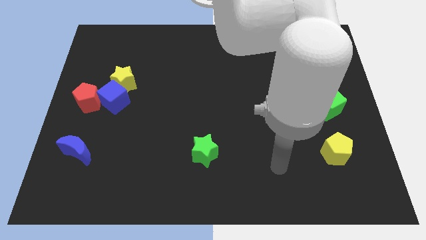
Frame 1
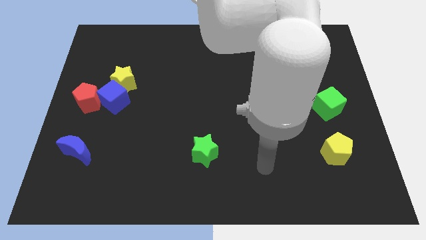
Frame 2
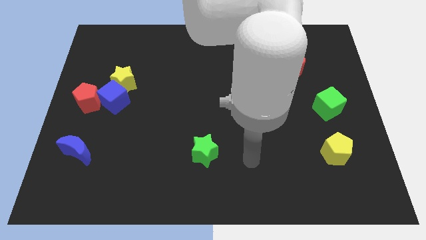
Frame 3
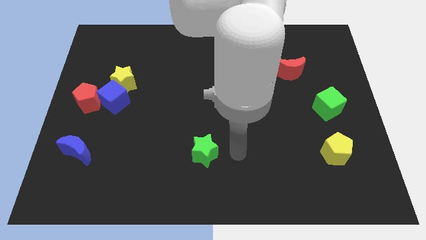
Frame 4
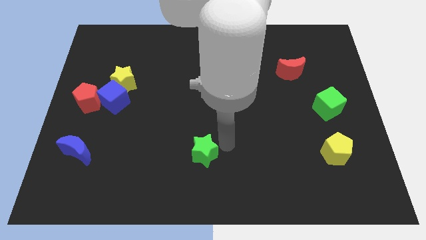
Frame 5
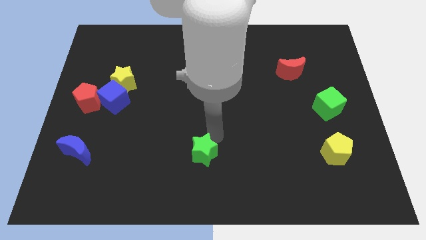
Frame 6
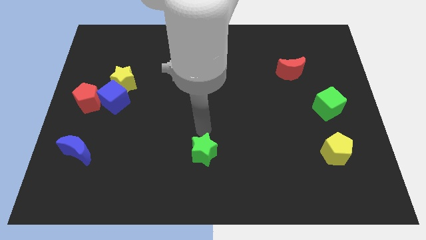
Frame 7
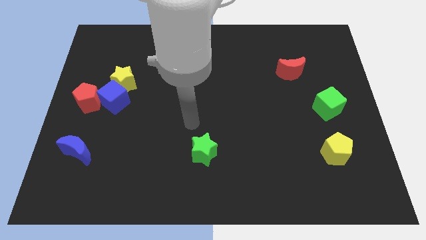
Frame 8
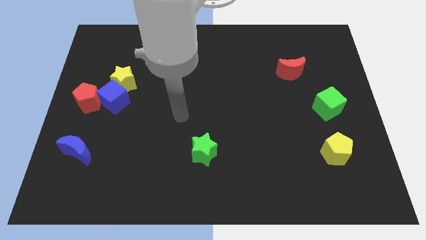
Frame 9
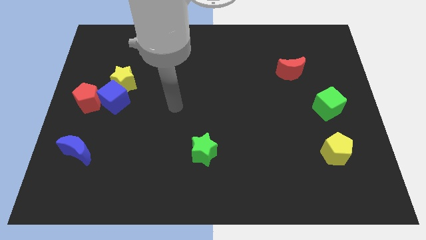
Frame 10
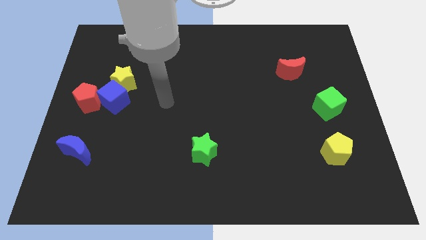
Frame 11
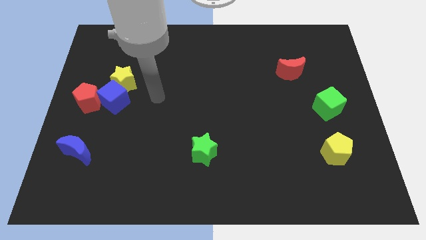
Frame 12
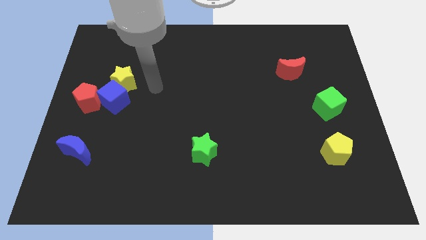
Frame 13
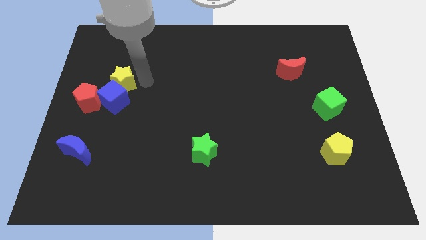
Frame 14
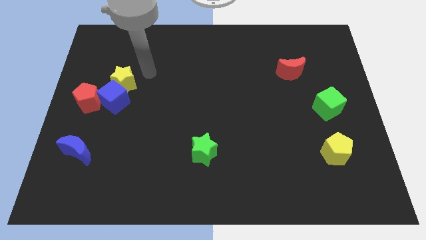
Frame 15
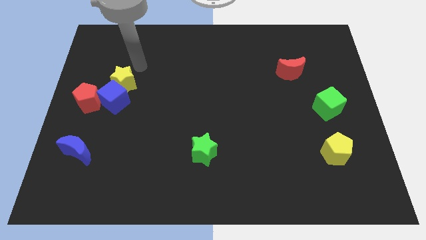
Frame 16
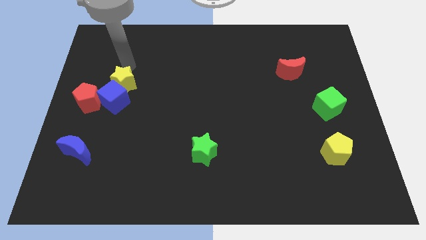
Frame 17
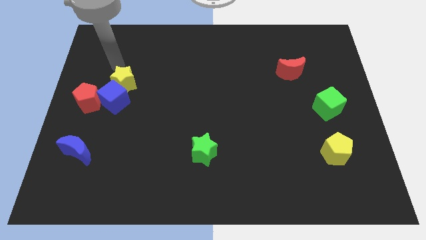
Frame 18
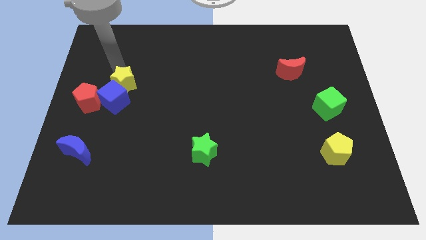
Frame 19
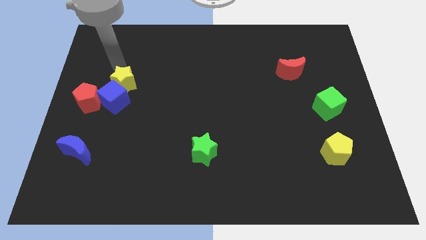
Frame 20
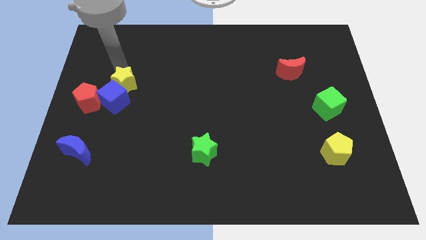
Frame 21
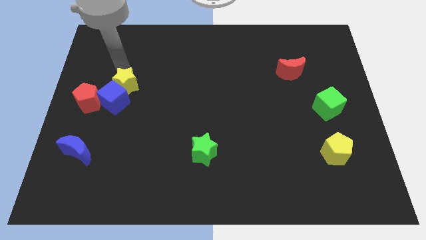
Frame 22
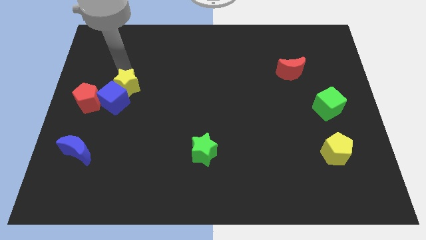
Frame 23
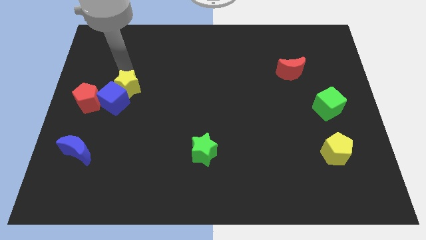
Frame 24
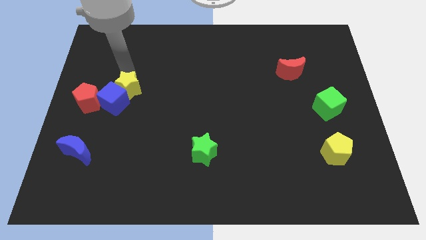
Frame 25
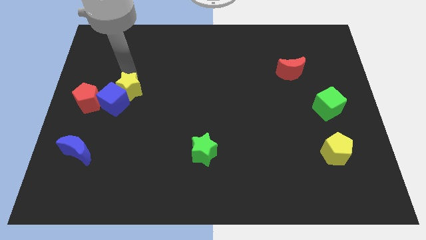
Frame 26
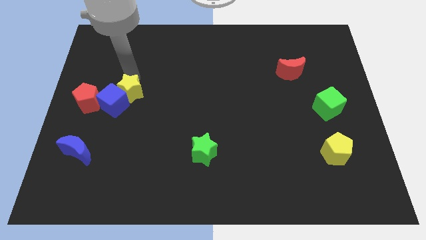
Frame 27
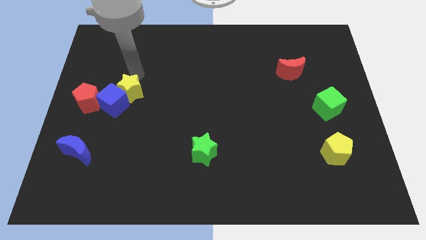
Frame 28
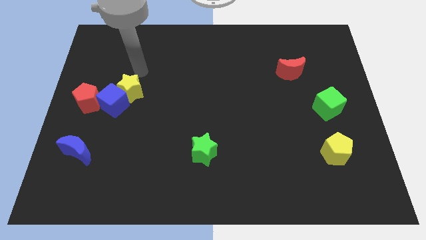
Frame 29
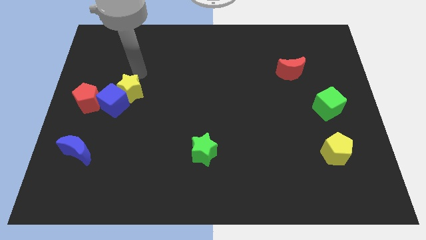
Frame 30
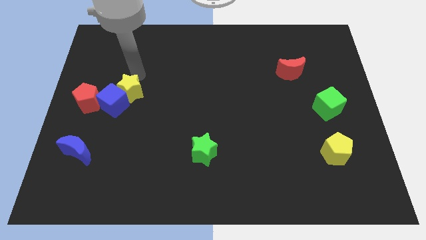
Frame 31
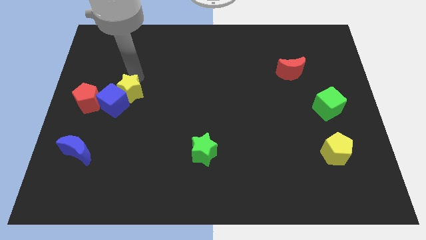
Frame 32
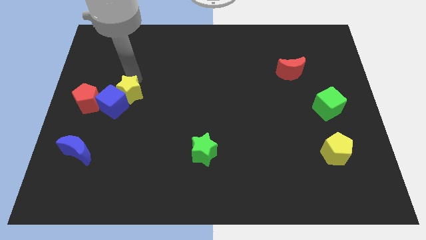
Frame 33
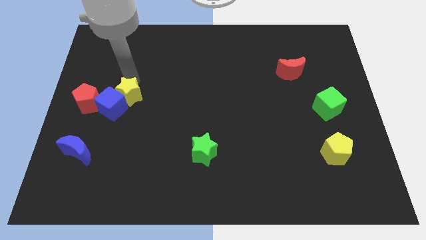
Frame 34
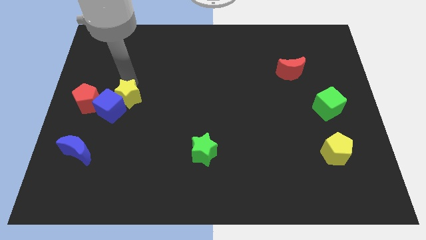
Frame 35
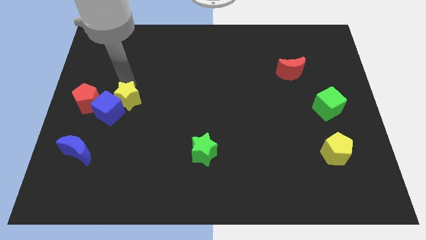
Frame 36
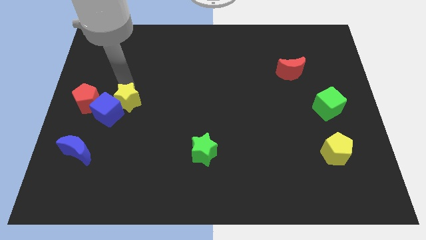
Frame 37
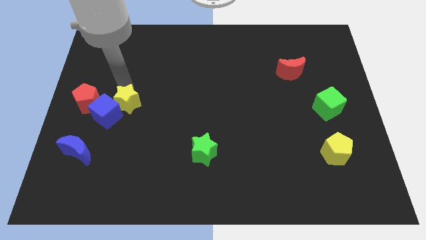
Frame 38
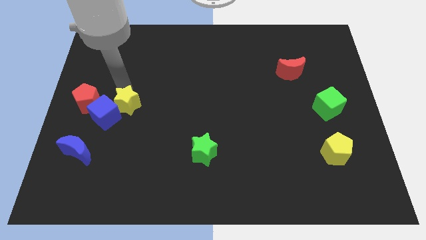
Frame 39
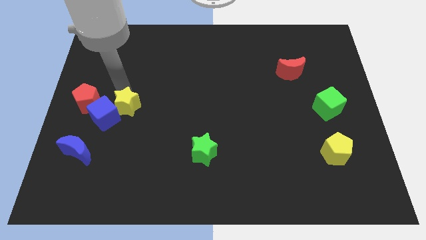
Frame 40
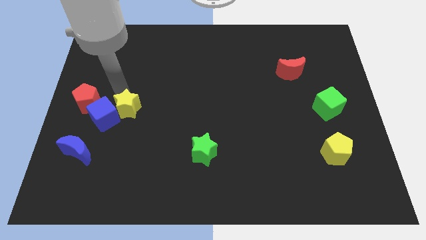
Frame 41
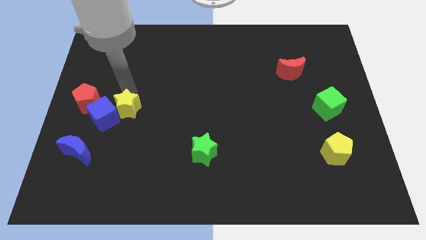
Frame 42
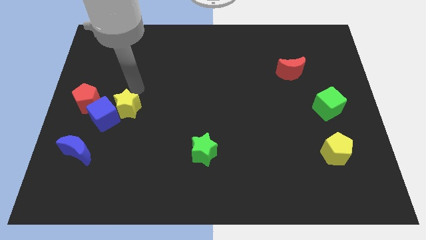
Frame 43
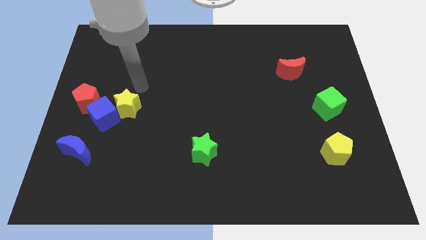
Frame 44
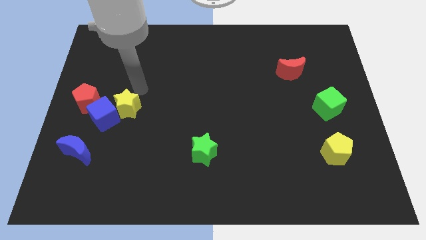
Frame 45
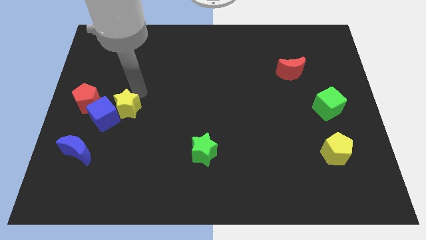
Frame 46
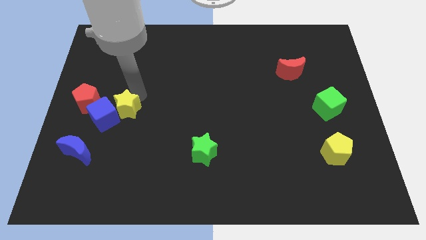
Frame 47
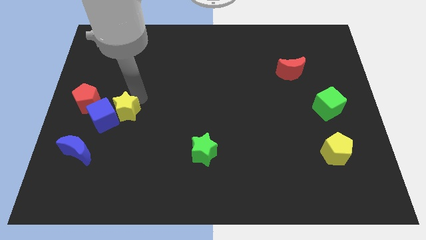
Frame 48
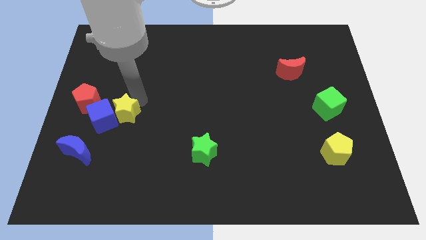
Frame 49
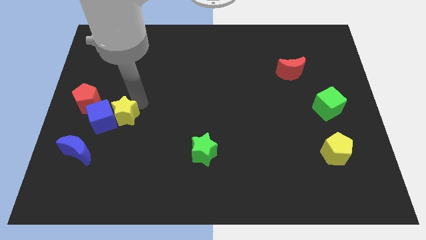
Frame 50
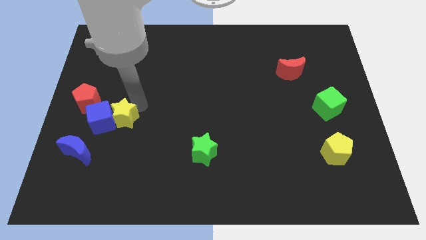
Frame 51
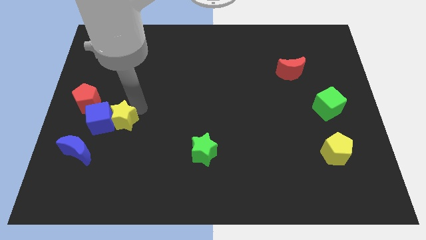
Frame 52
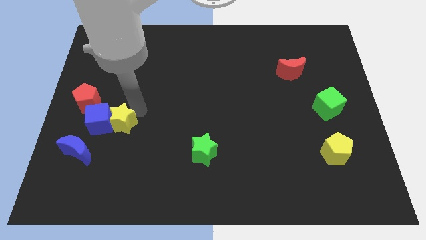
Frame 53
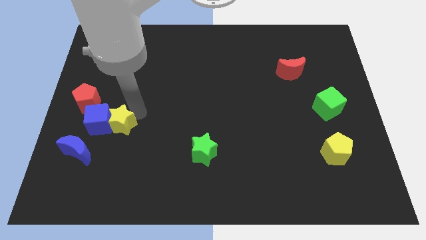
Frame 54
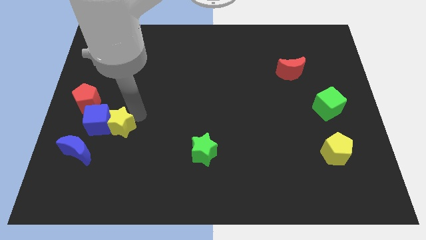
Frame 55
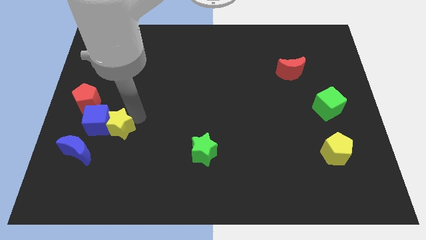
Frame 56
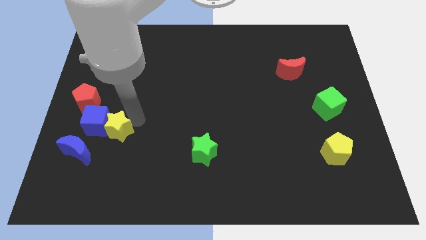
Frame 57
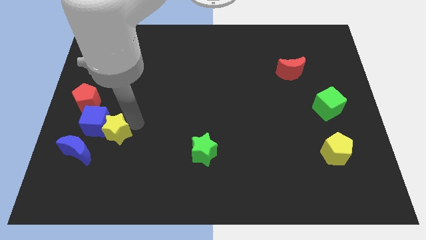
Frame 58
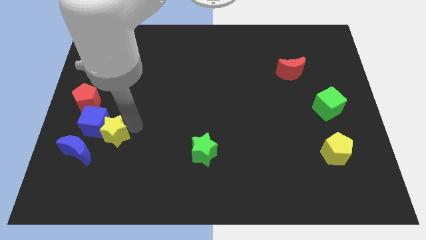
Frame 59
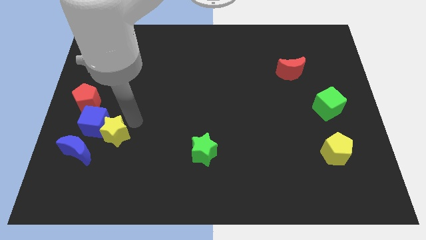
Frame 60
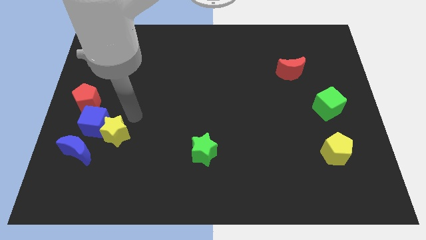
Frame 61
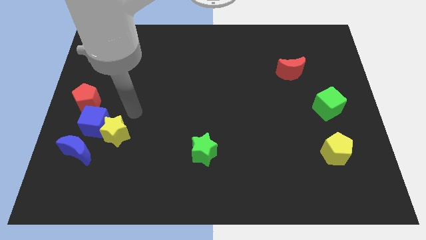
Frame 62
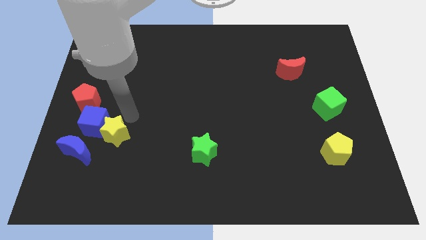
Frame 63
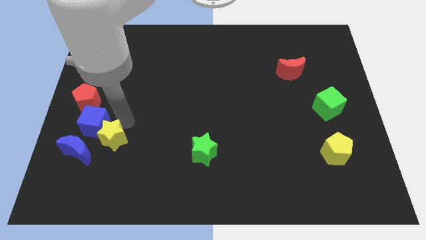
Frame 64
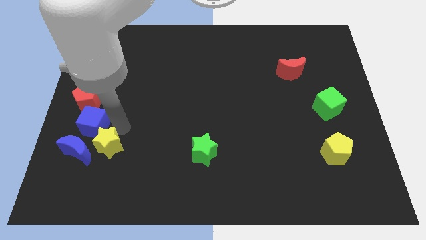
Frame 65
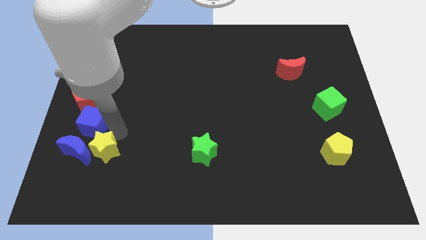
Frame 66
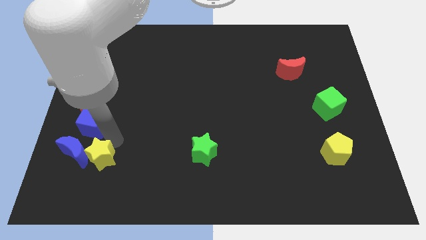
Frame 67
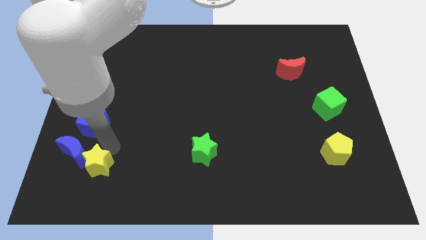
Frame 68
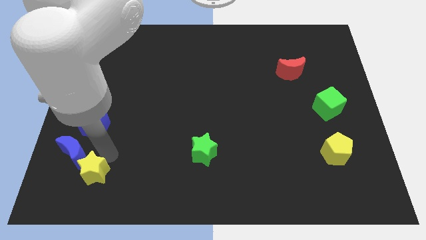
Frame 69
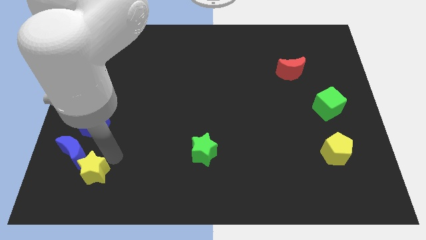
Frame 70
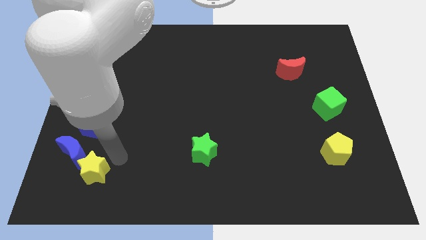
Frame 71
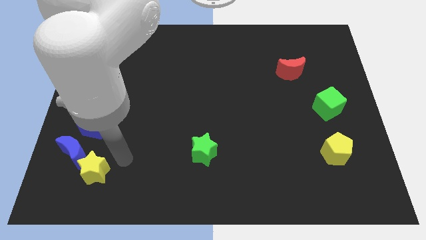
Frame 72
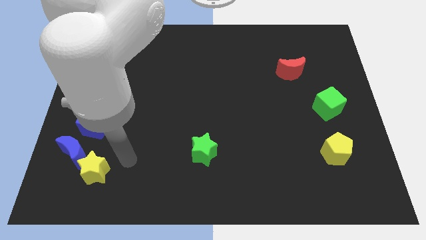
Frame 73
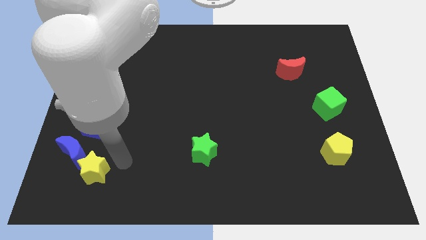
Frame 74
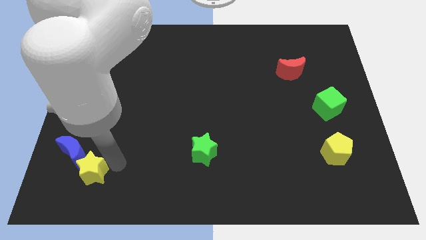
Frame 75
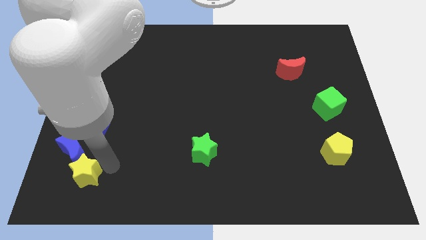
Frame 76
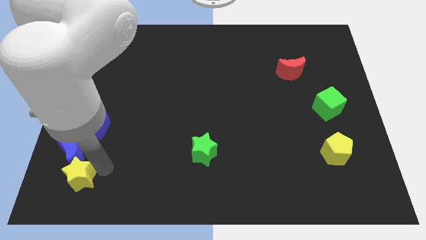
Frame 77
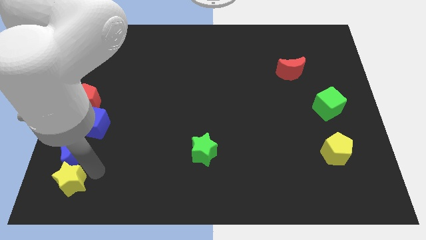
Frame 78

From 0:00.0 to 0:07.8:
move the yellow star to the lower left corner
